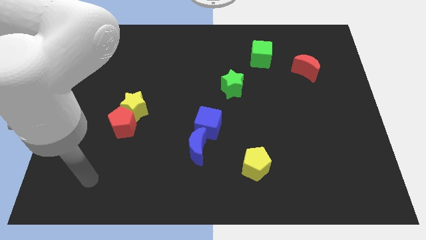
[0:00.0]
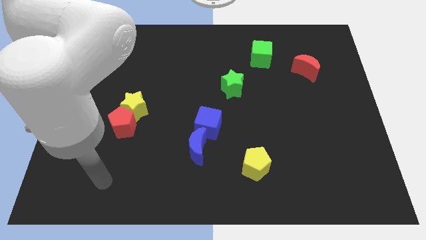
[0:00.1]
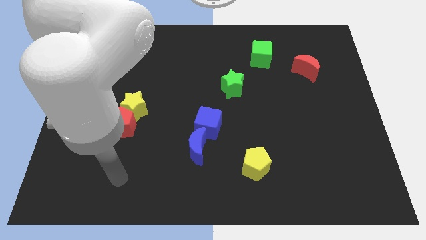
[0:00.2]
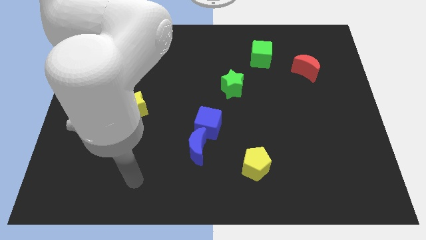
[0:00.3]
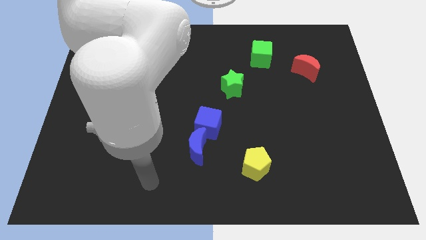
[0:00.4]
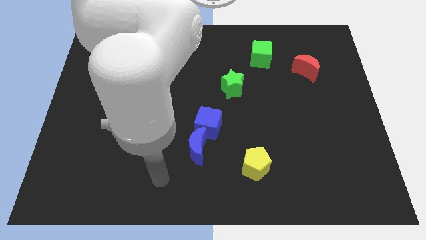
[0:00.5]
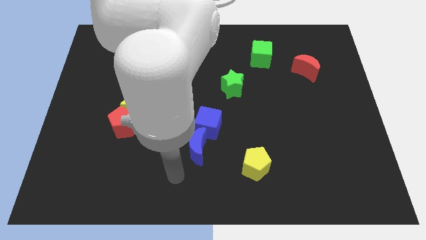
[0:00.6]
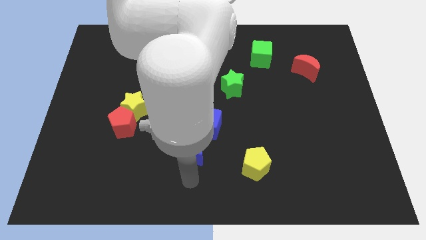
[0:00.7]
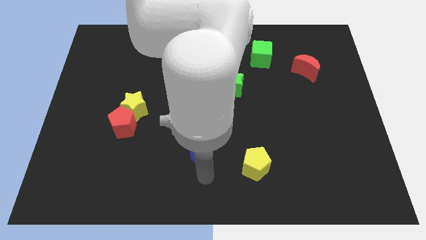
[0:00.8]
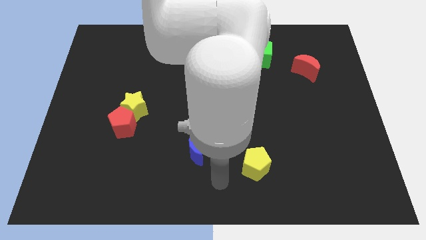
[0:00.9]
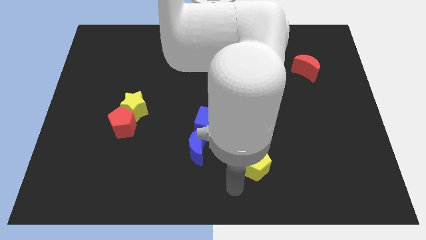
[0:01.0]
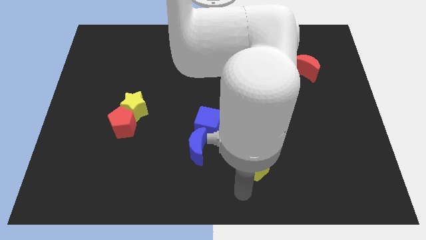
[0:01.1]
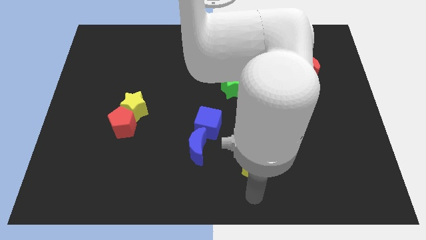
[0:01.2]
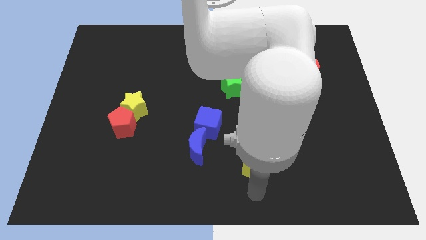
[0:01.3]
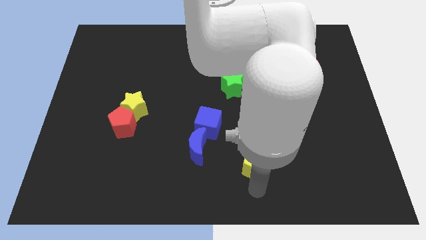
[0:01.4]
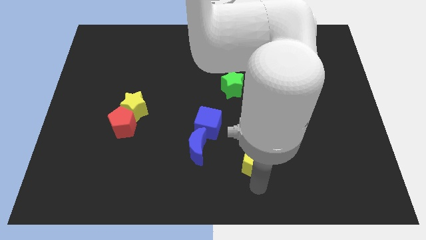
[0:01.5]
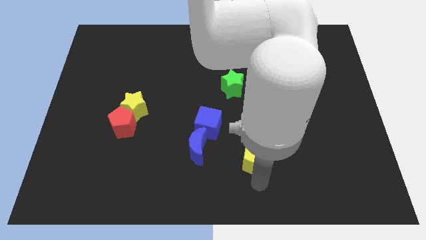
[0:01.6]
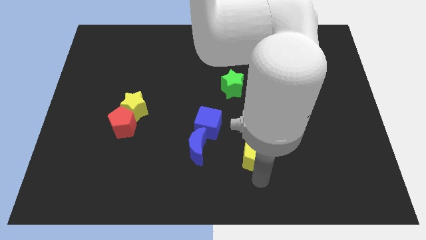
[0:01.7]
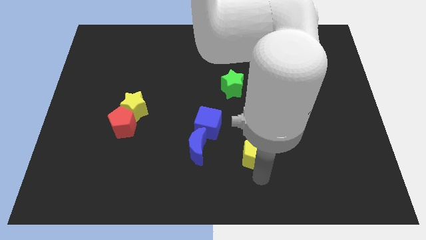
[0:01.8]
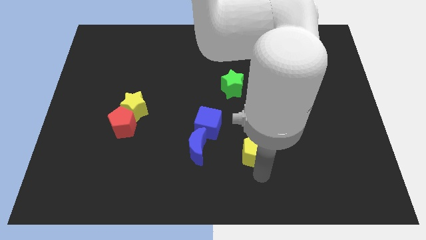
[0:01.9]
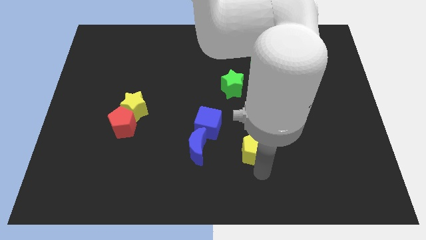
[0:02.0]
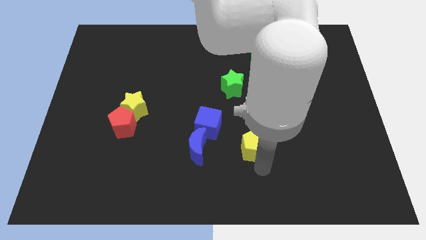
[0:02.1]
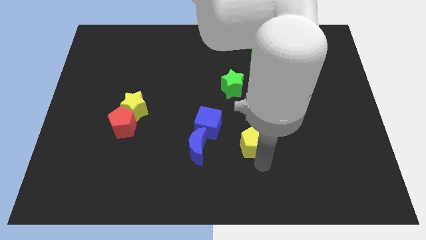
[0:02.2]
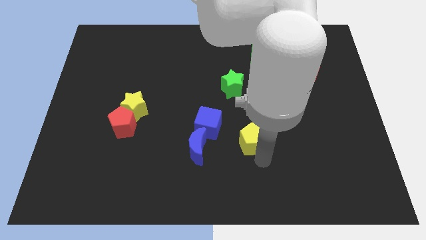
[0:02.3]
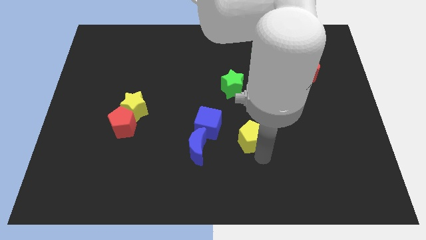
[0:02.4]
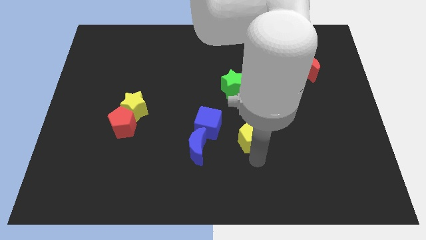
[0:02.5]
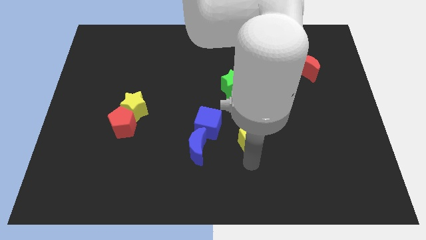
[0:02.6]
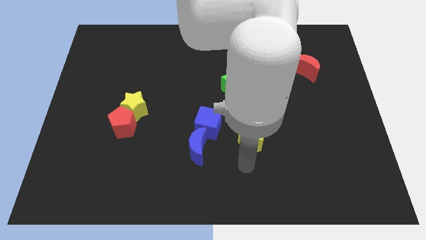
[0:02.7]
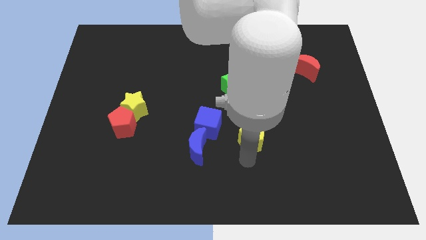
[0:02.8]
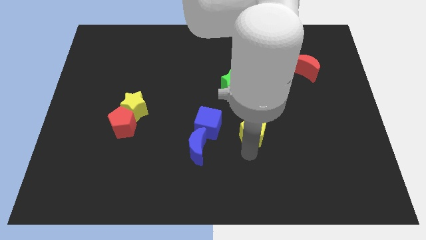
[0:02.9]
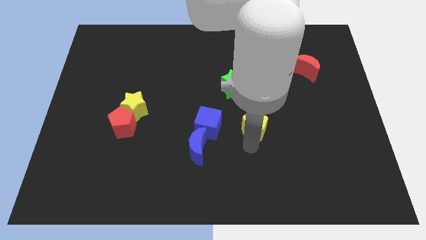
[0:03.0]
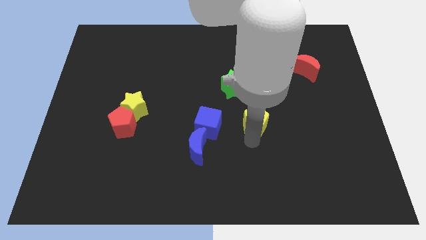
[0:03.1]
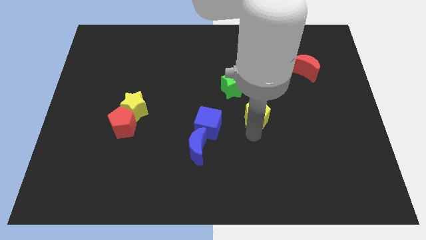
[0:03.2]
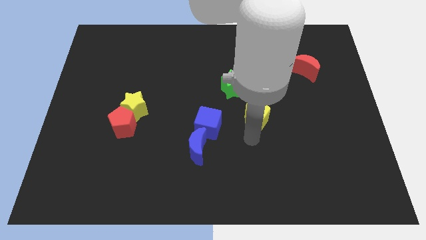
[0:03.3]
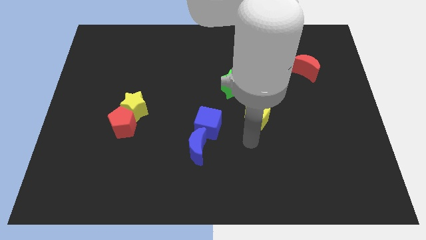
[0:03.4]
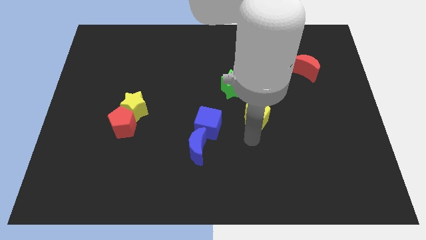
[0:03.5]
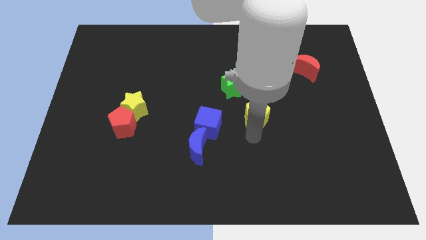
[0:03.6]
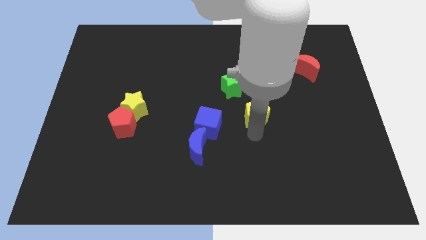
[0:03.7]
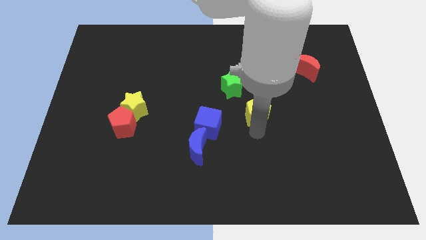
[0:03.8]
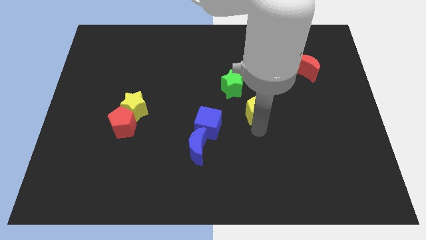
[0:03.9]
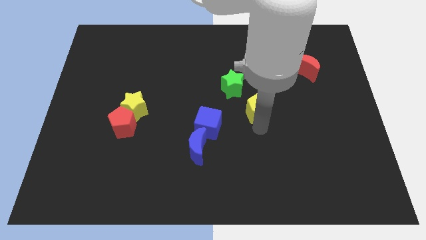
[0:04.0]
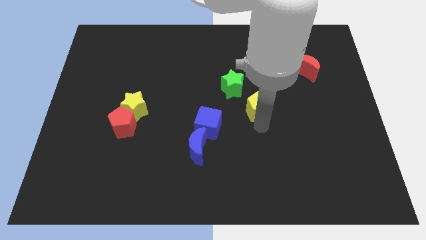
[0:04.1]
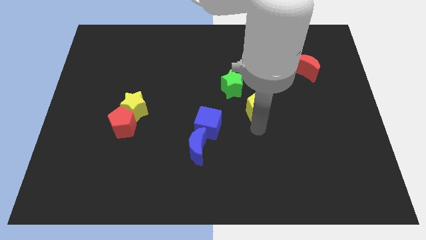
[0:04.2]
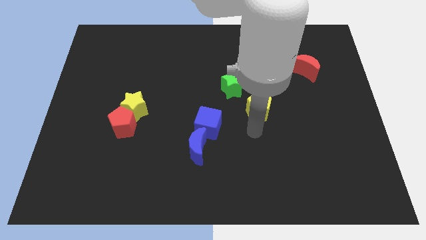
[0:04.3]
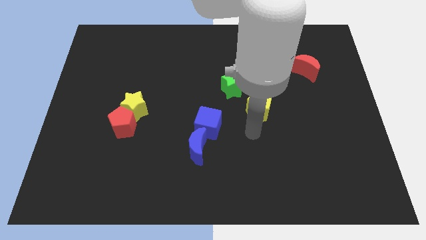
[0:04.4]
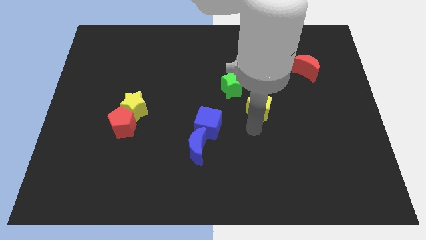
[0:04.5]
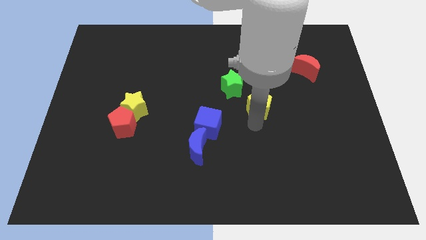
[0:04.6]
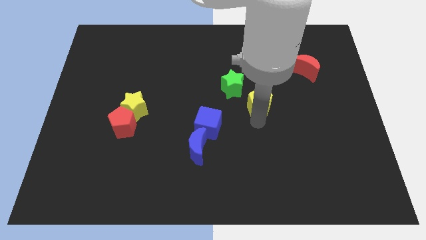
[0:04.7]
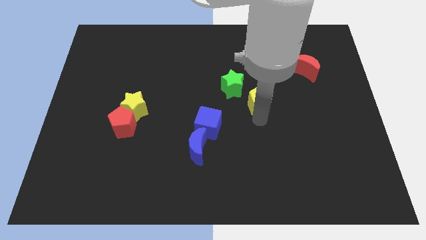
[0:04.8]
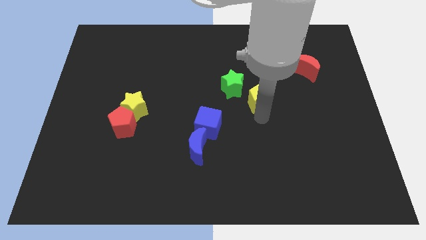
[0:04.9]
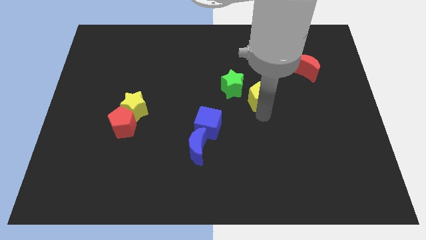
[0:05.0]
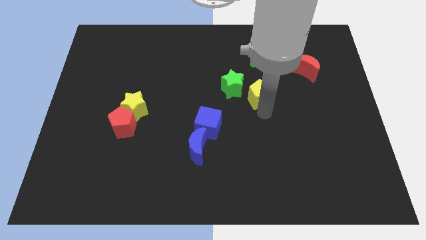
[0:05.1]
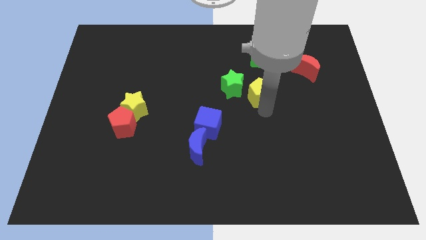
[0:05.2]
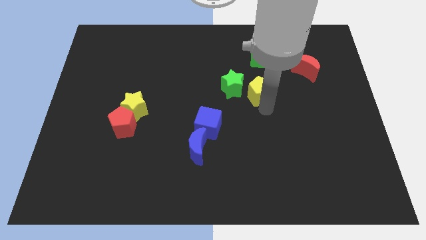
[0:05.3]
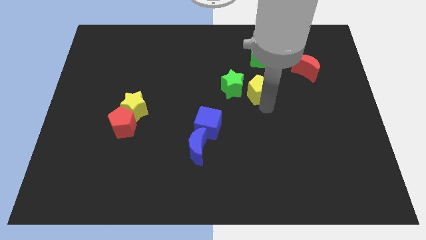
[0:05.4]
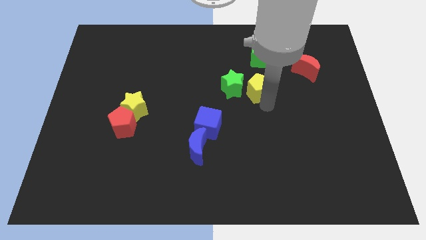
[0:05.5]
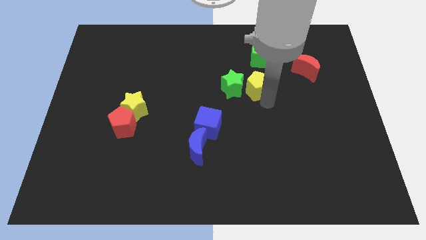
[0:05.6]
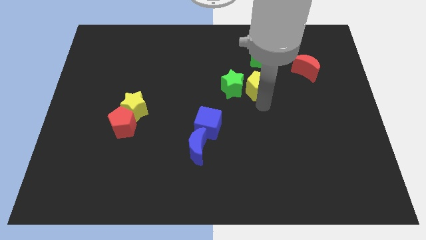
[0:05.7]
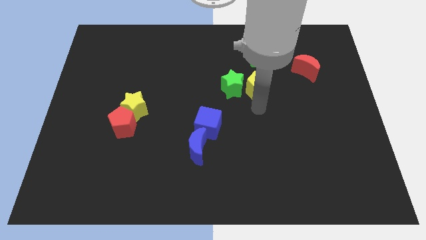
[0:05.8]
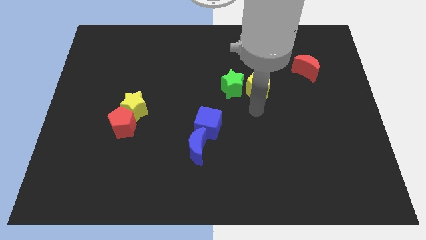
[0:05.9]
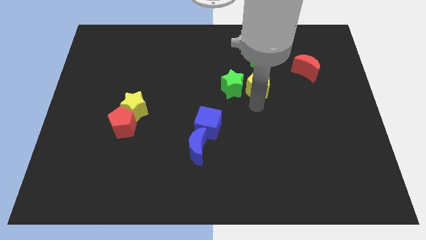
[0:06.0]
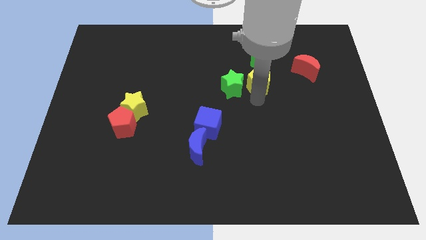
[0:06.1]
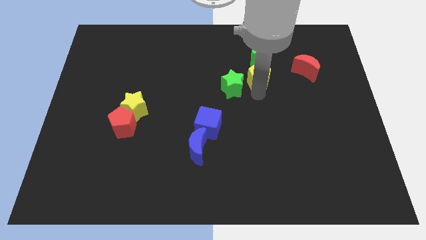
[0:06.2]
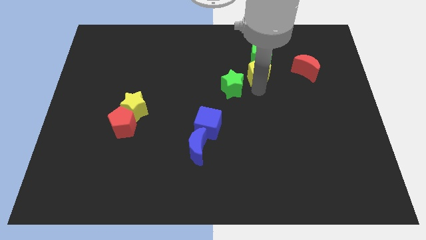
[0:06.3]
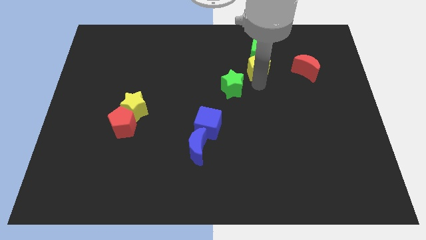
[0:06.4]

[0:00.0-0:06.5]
put the yellow pentagon to the green cube
